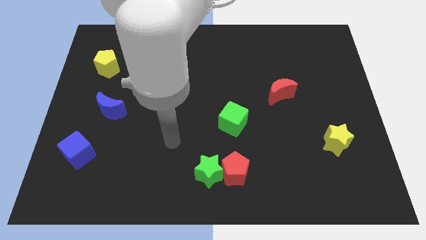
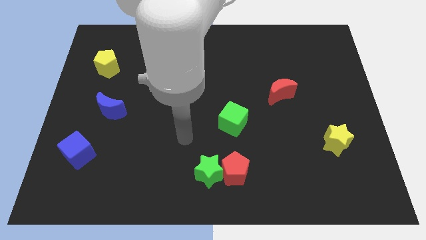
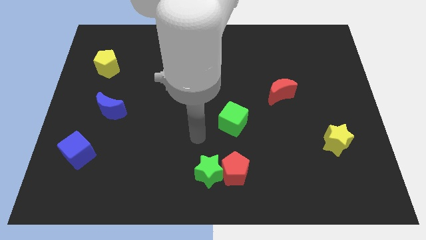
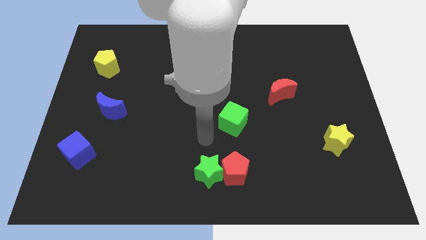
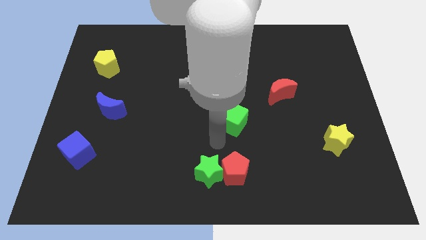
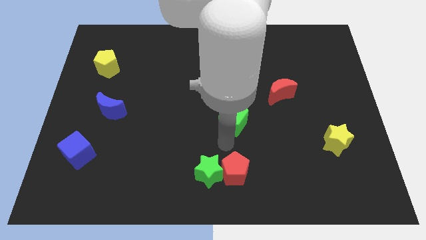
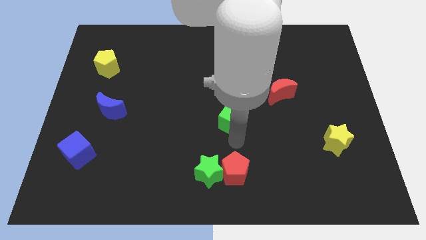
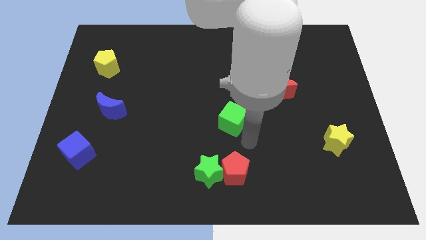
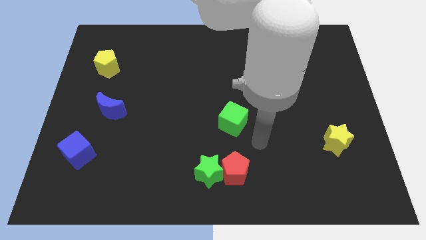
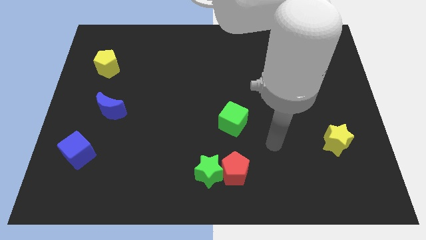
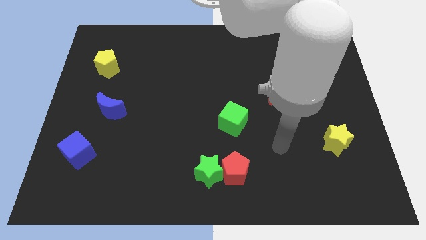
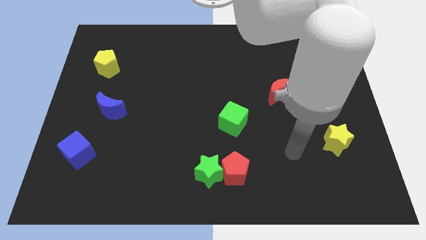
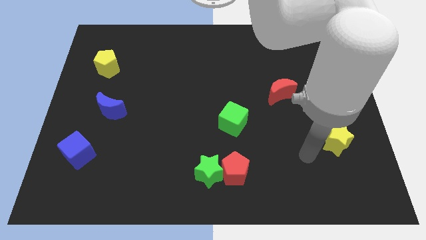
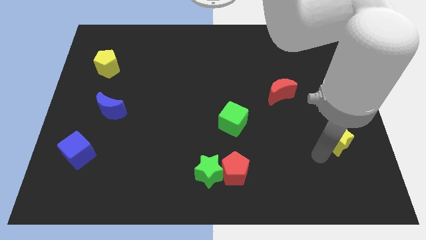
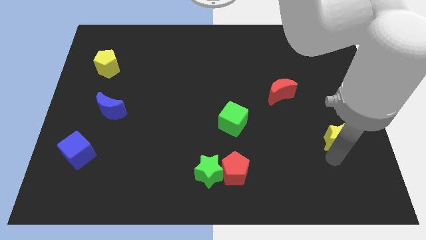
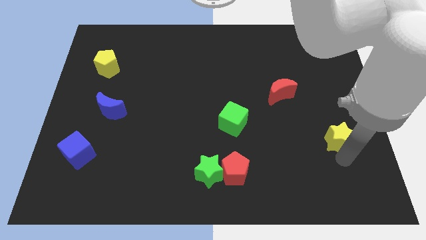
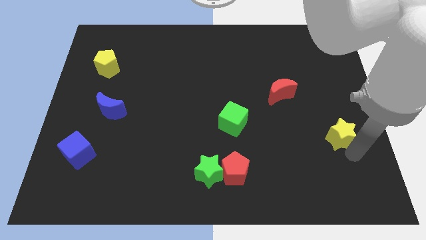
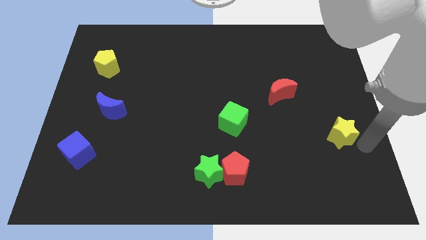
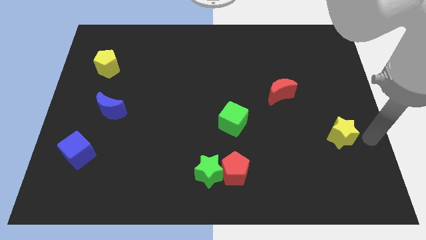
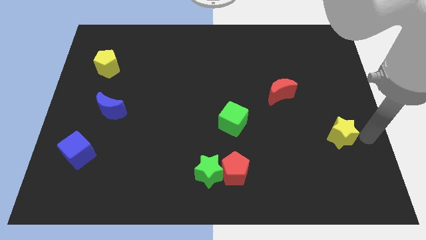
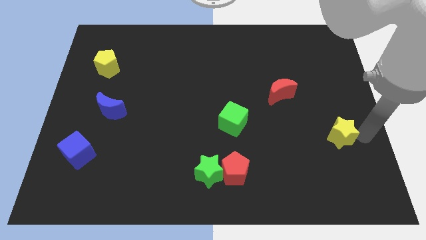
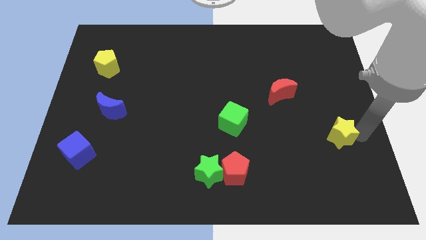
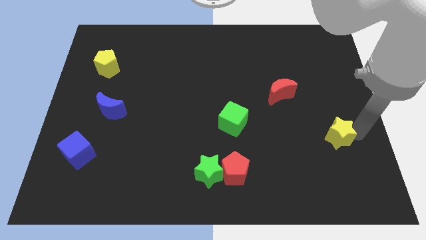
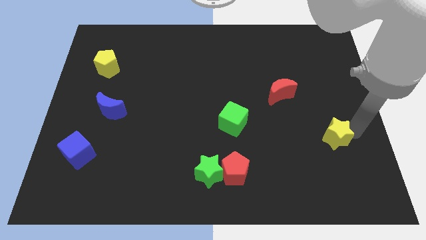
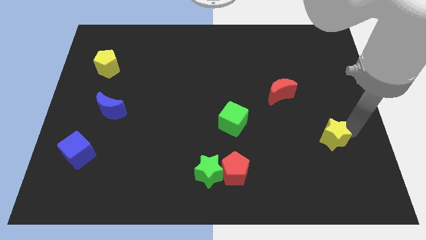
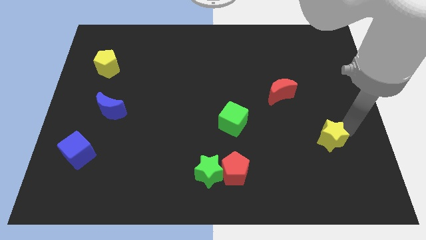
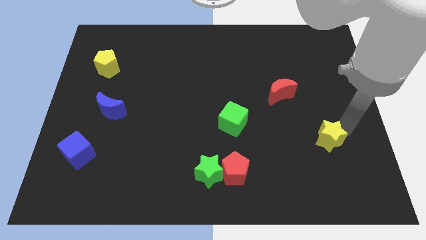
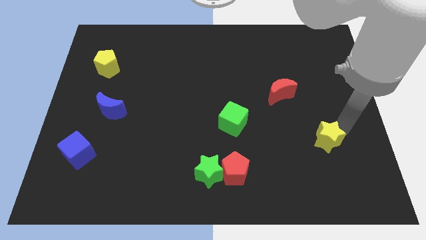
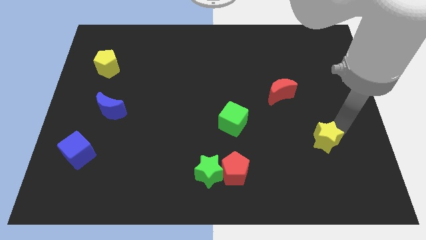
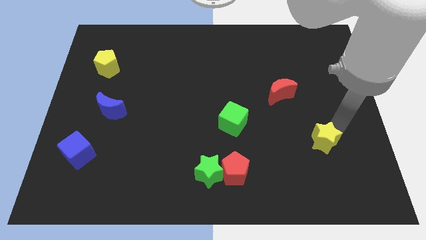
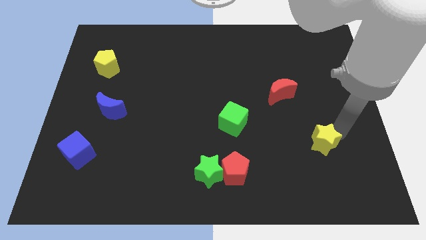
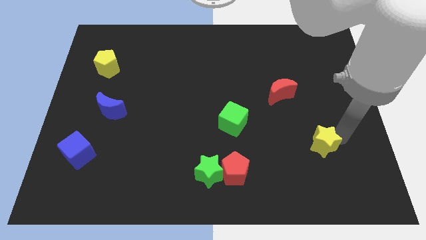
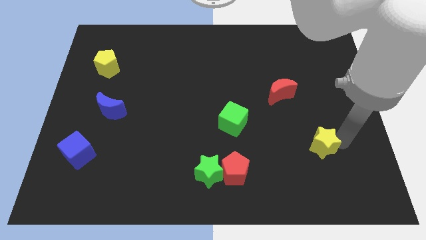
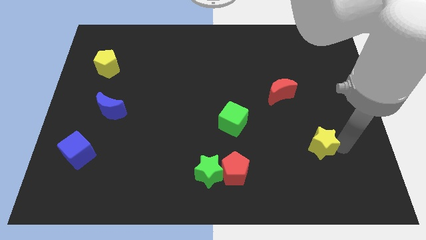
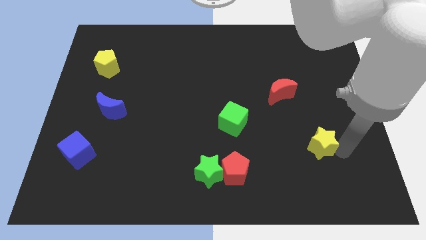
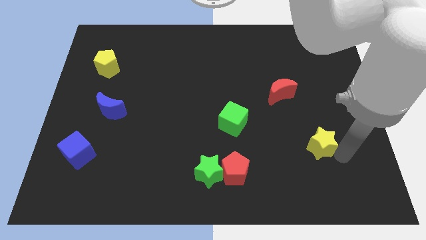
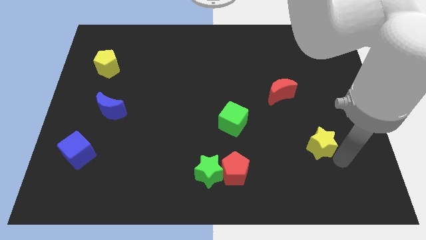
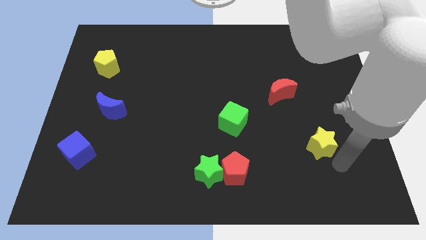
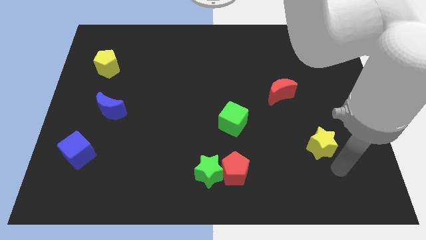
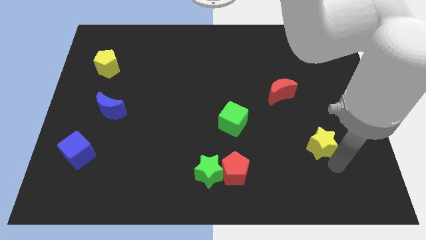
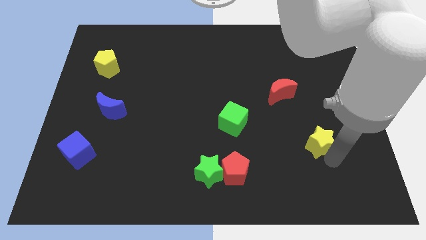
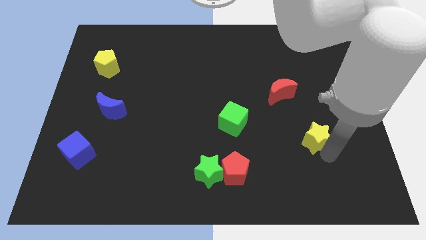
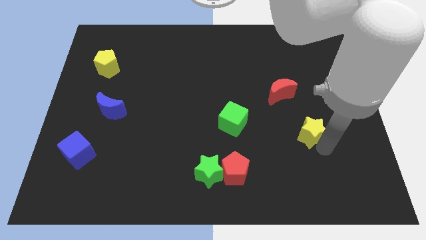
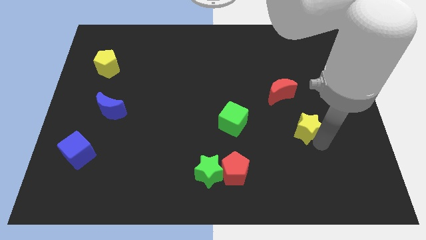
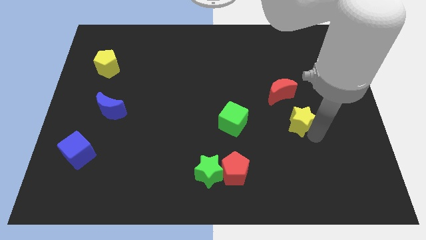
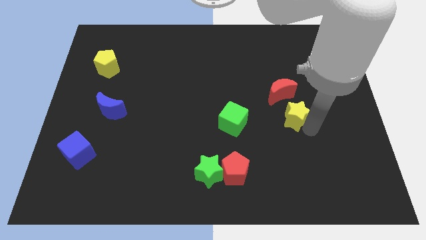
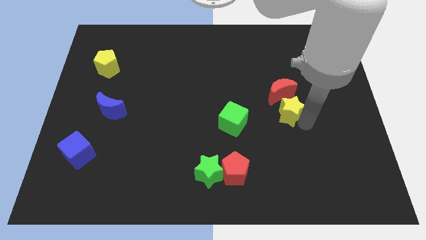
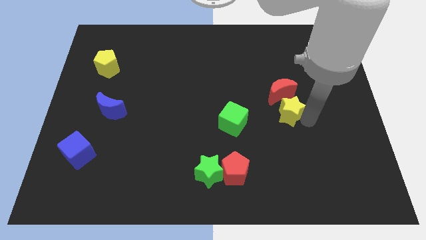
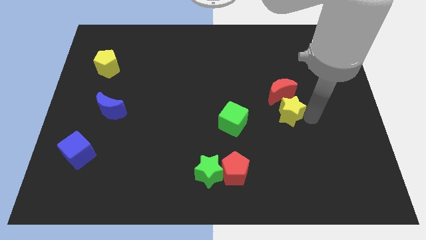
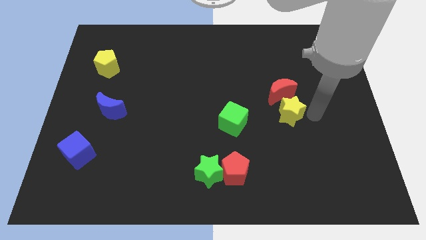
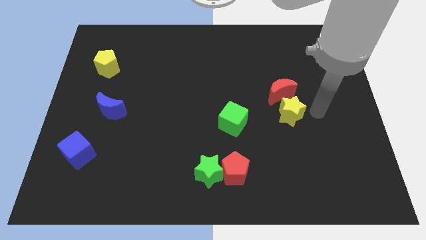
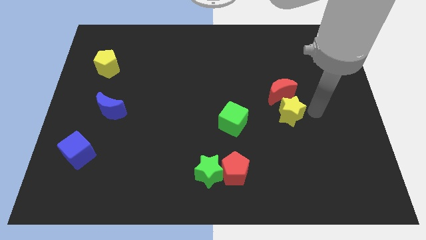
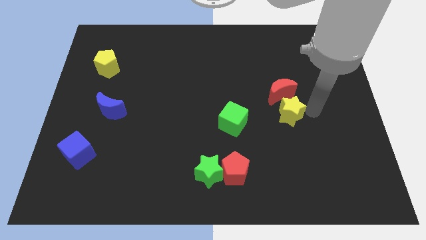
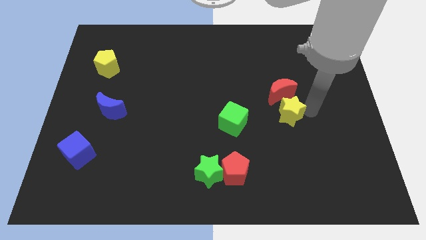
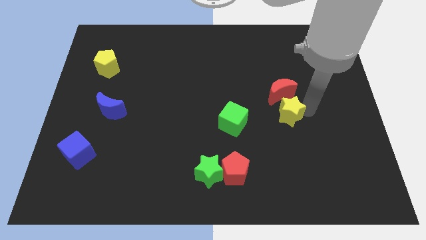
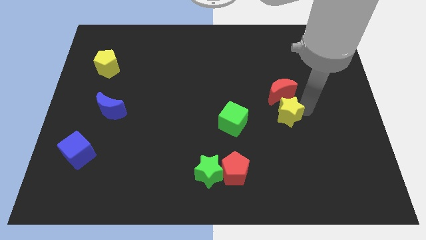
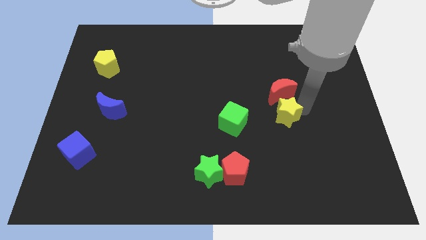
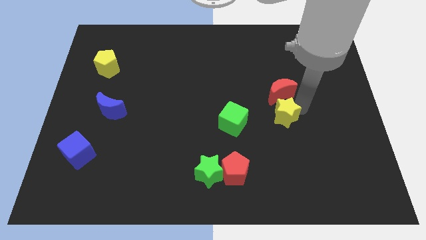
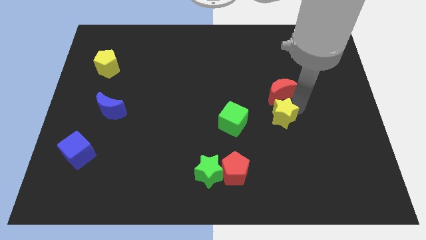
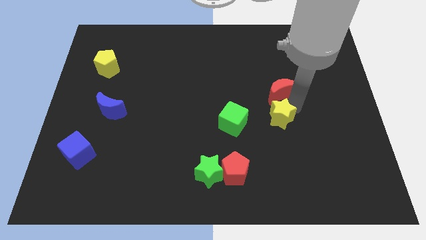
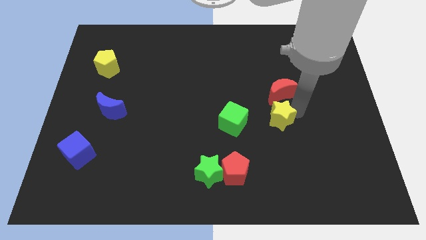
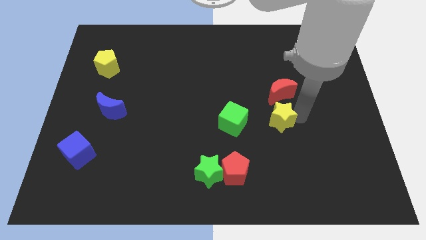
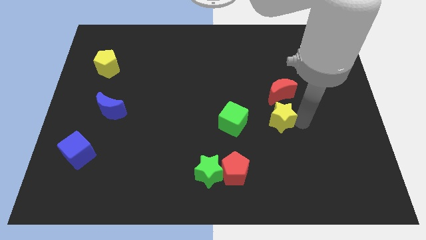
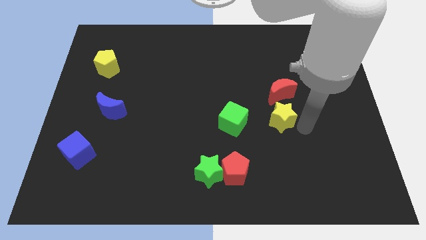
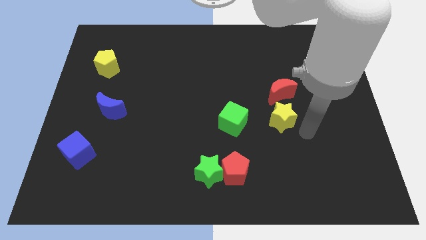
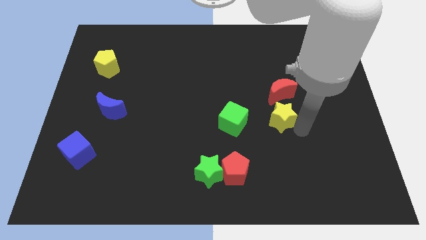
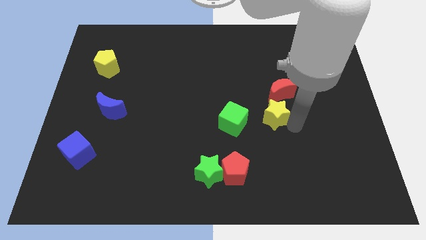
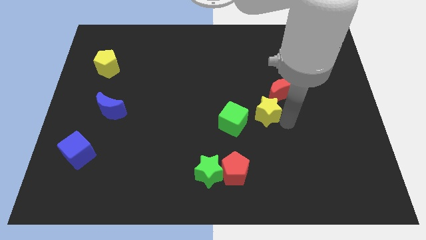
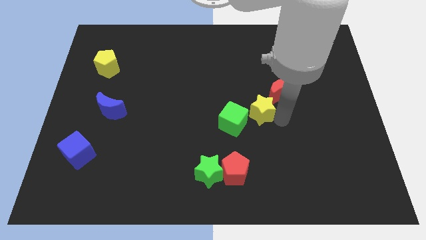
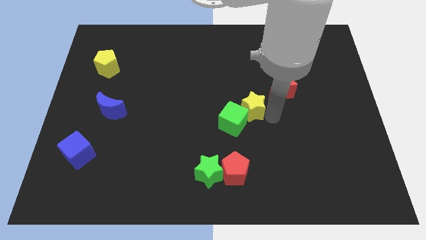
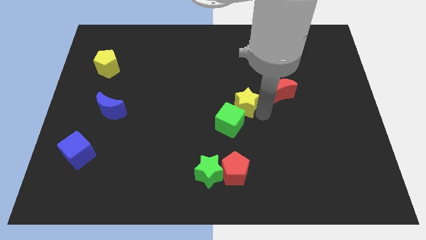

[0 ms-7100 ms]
slide the yellow star above the green cube
